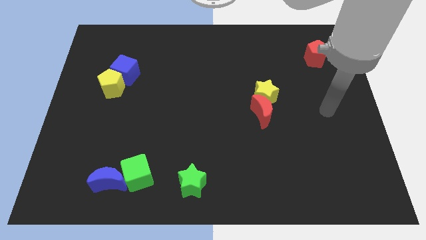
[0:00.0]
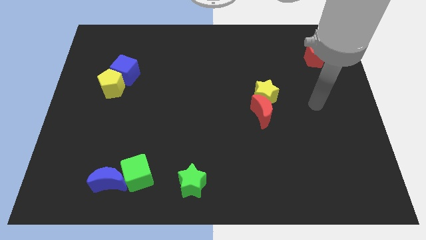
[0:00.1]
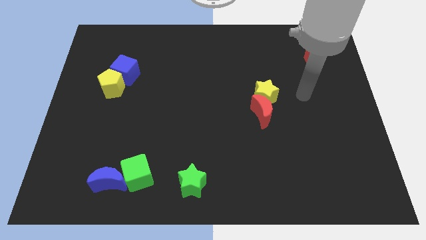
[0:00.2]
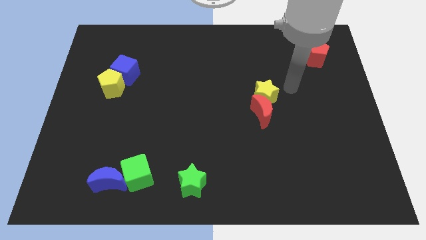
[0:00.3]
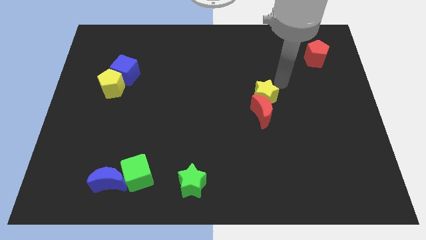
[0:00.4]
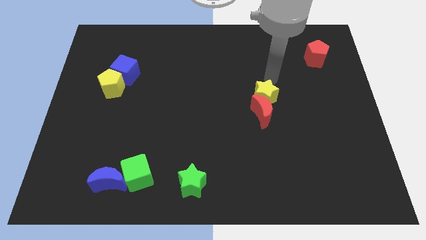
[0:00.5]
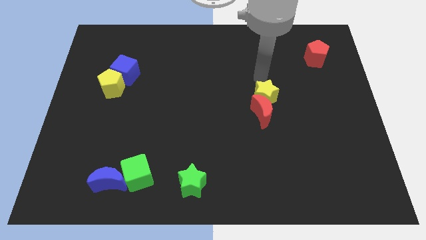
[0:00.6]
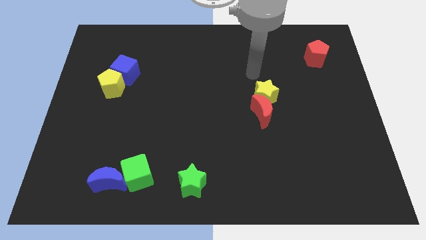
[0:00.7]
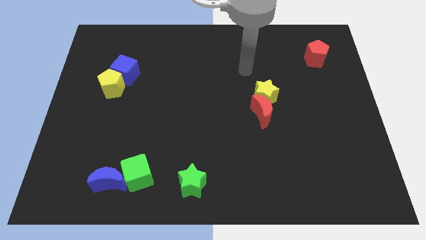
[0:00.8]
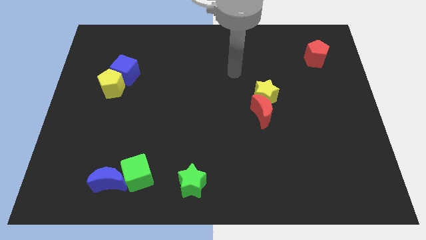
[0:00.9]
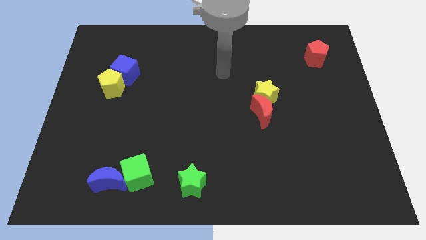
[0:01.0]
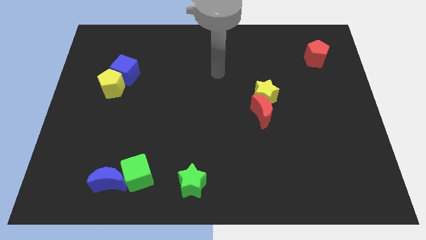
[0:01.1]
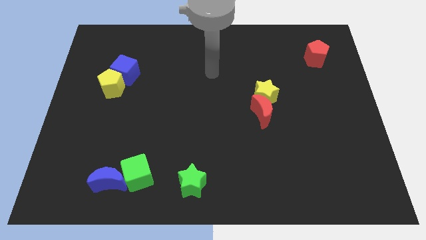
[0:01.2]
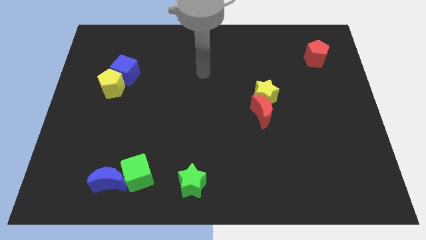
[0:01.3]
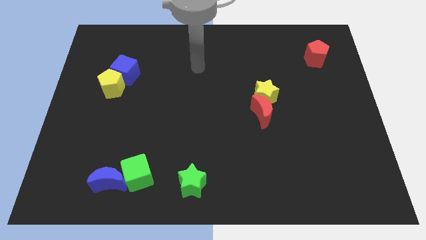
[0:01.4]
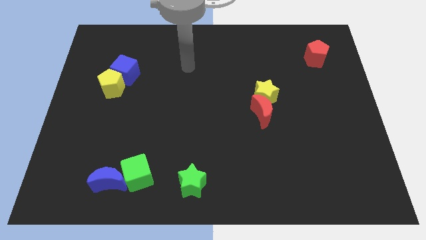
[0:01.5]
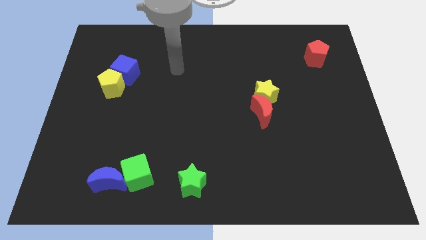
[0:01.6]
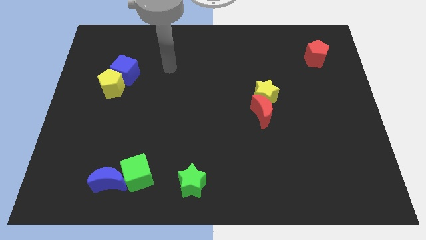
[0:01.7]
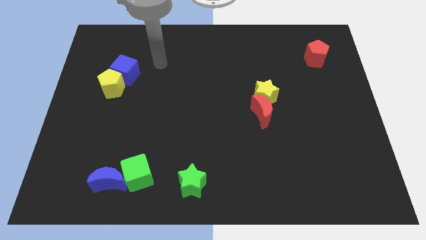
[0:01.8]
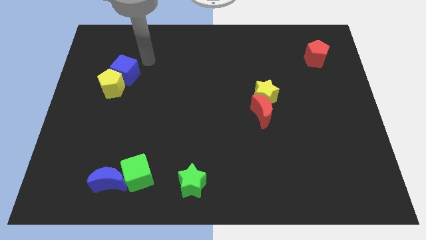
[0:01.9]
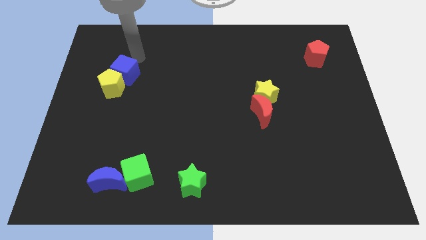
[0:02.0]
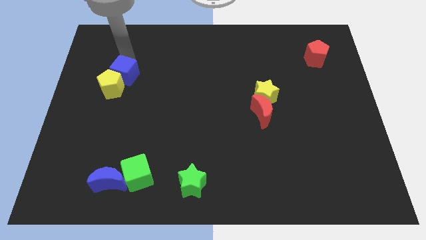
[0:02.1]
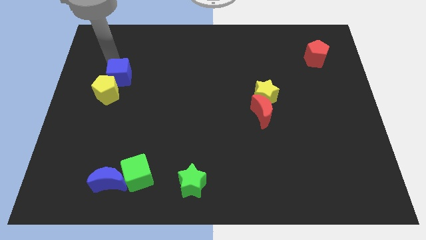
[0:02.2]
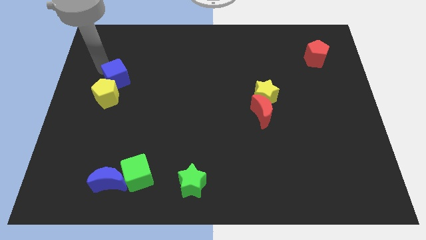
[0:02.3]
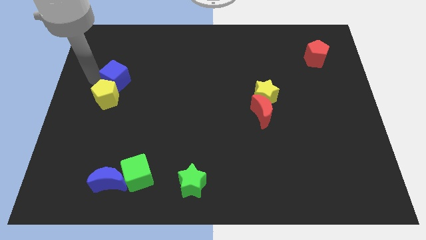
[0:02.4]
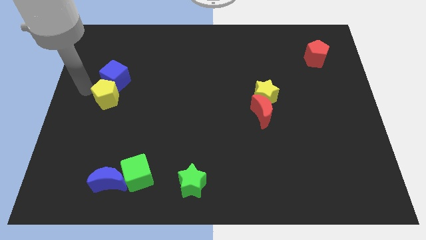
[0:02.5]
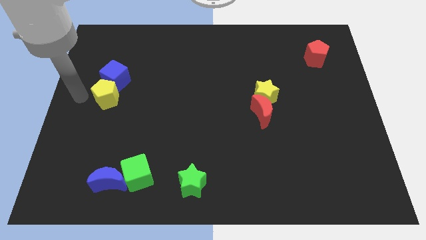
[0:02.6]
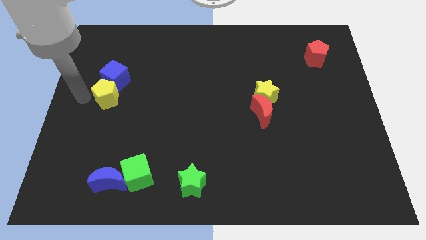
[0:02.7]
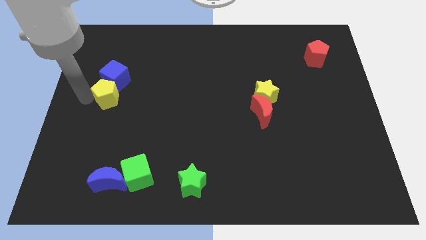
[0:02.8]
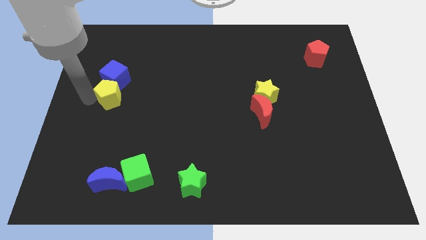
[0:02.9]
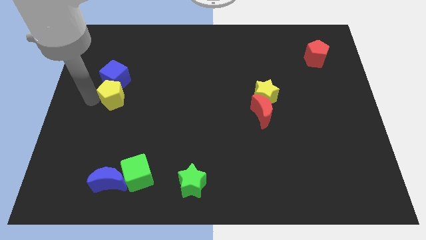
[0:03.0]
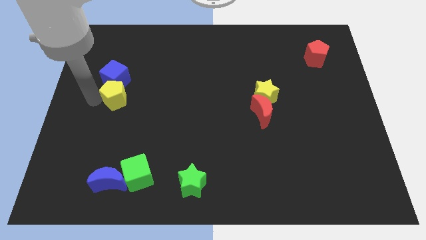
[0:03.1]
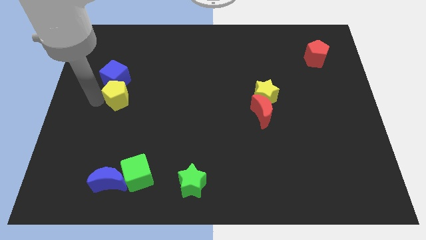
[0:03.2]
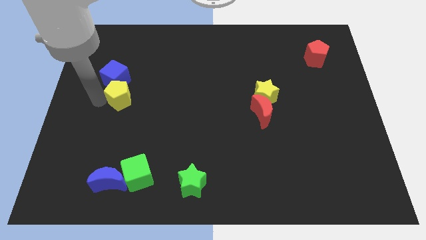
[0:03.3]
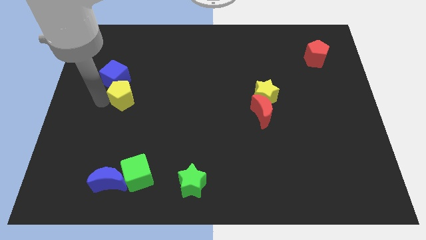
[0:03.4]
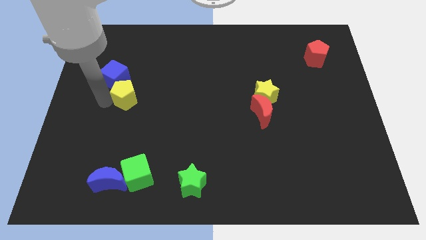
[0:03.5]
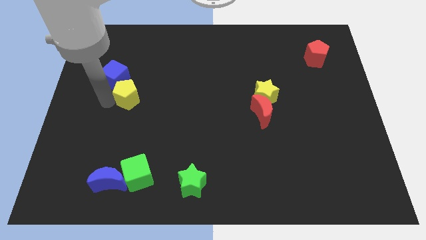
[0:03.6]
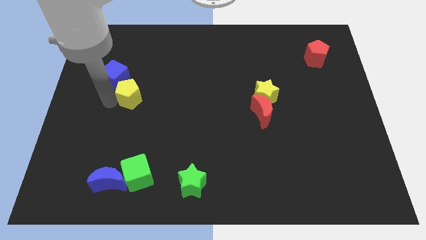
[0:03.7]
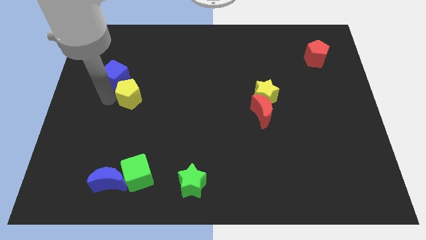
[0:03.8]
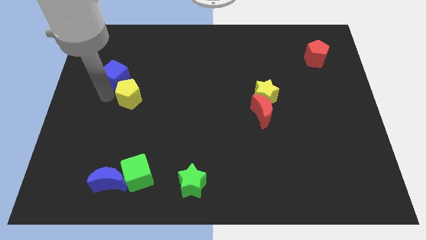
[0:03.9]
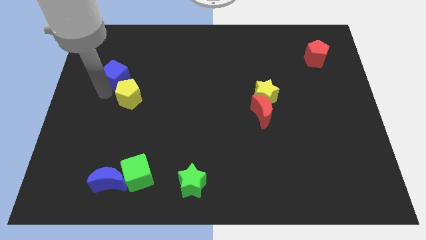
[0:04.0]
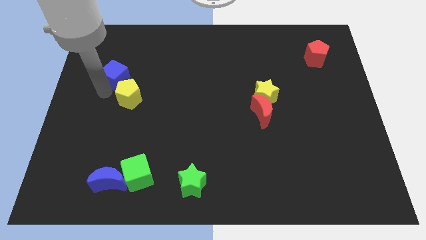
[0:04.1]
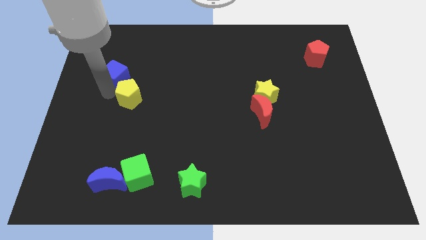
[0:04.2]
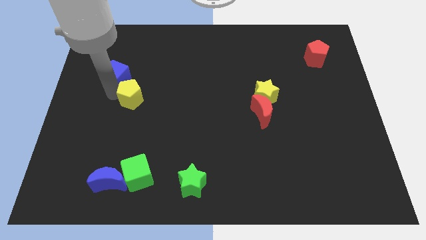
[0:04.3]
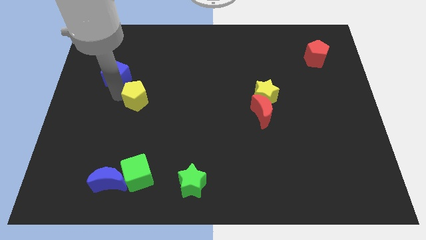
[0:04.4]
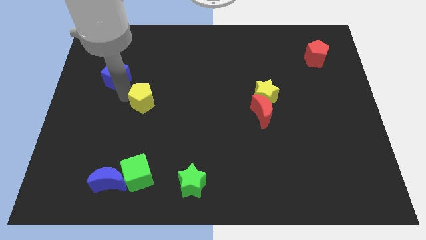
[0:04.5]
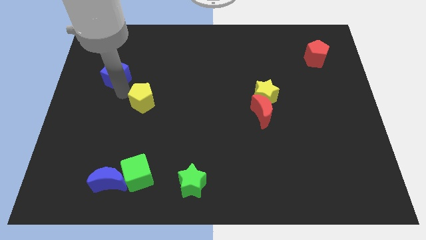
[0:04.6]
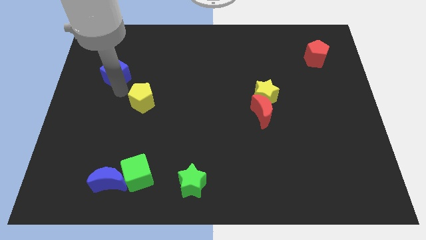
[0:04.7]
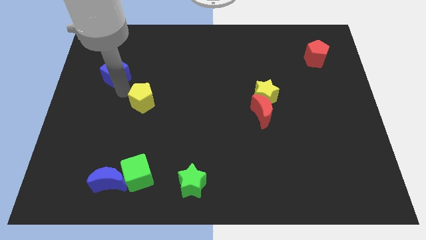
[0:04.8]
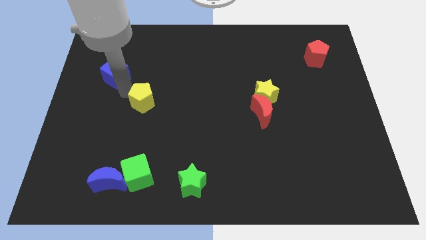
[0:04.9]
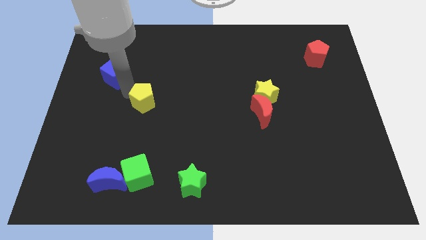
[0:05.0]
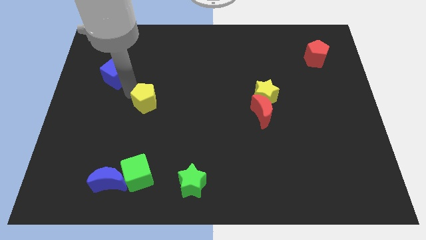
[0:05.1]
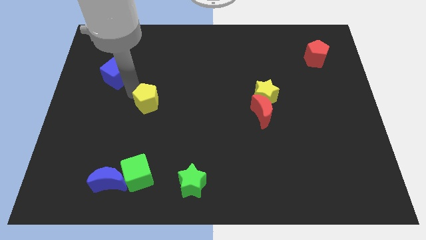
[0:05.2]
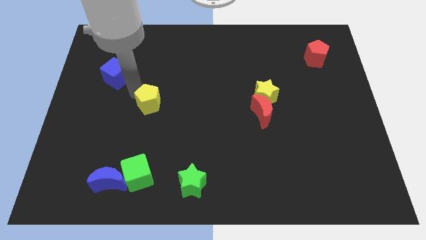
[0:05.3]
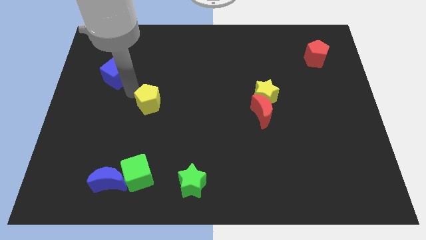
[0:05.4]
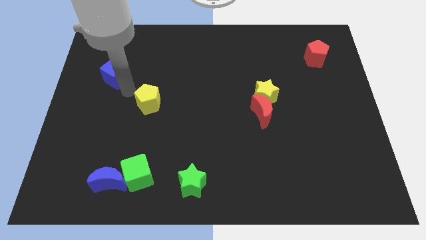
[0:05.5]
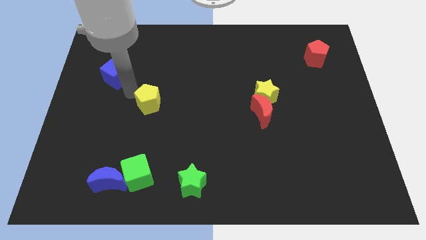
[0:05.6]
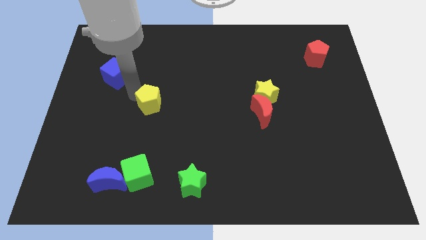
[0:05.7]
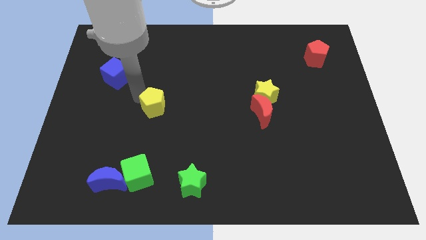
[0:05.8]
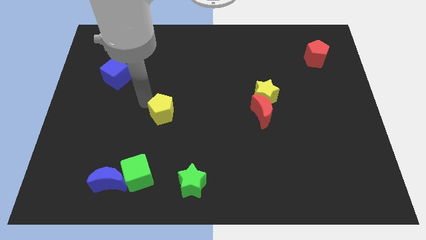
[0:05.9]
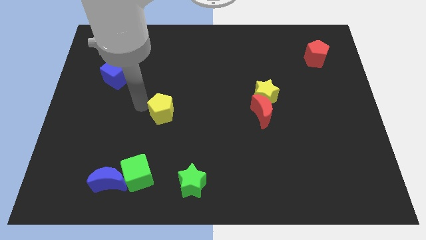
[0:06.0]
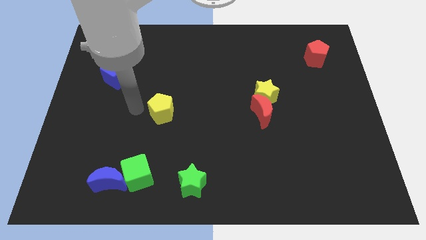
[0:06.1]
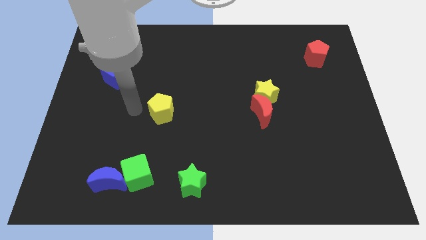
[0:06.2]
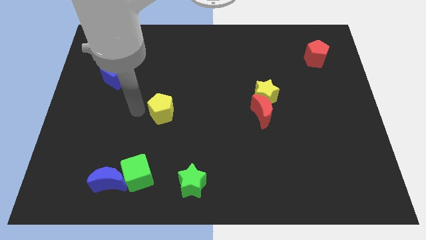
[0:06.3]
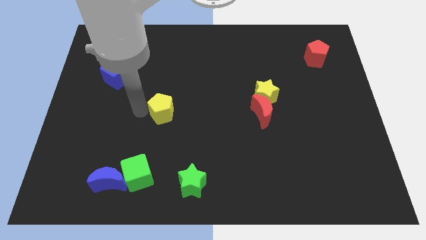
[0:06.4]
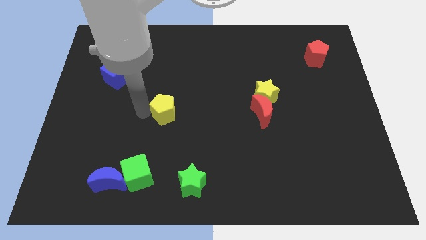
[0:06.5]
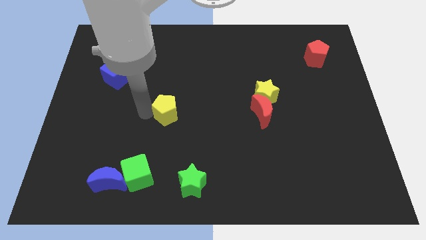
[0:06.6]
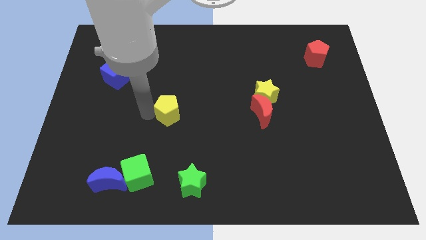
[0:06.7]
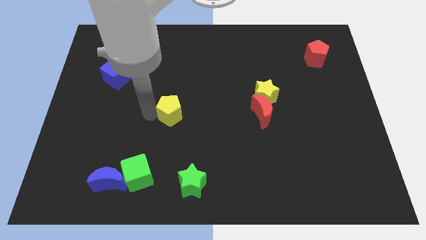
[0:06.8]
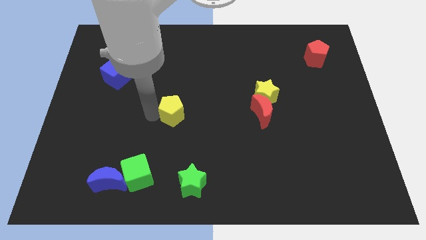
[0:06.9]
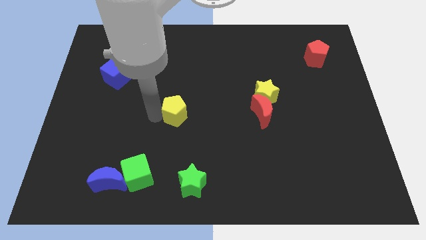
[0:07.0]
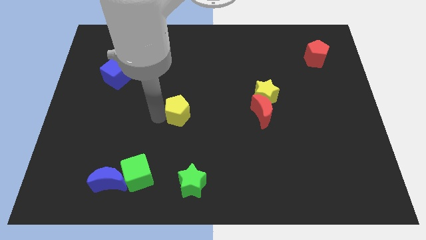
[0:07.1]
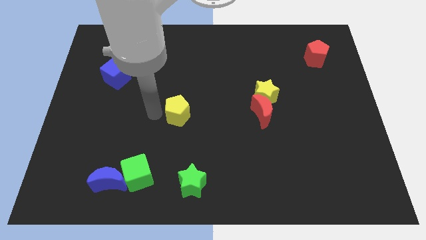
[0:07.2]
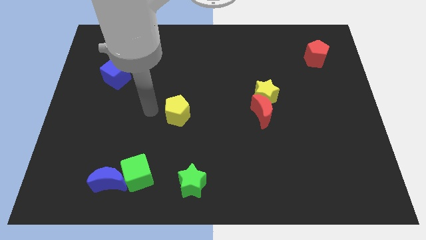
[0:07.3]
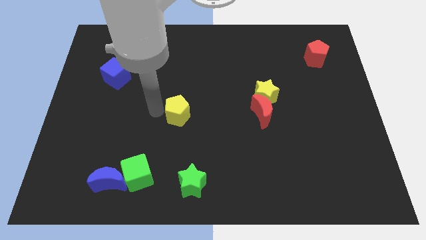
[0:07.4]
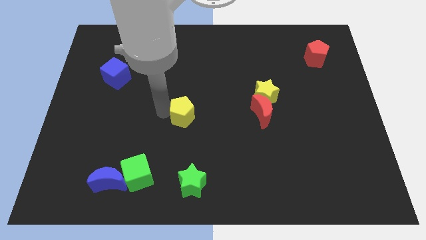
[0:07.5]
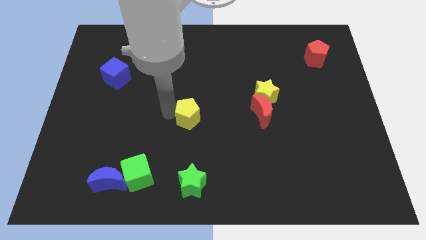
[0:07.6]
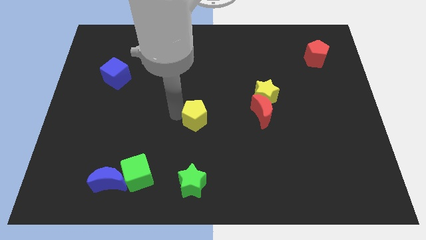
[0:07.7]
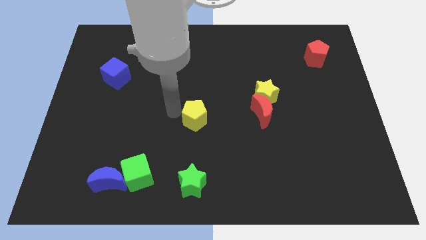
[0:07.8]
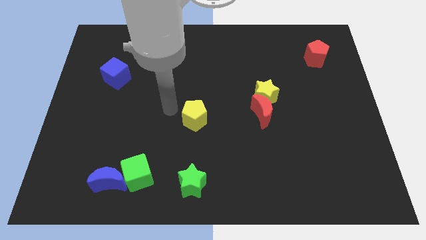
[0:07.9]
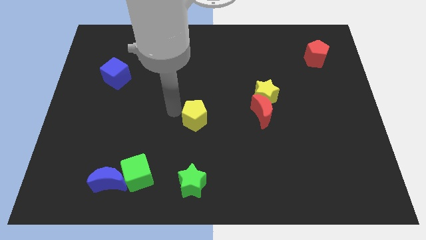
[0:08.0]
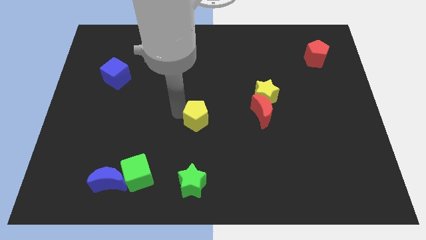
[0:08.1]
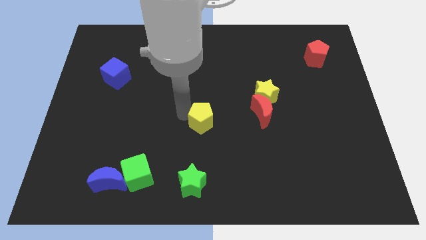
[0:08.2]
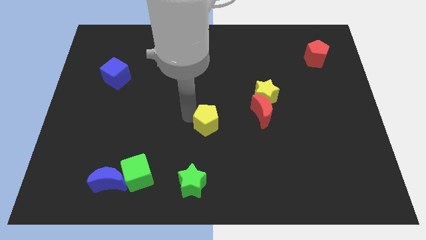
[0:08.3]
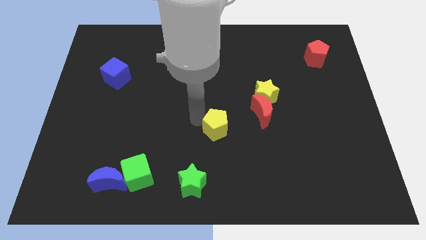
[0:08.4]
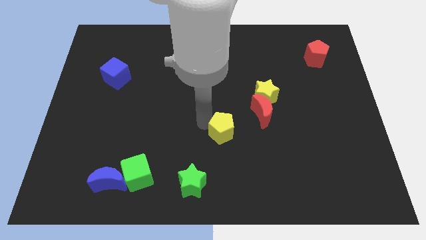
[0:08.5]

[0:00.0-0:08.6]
push the yellow pentagon diagonally down and to the left of the red moon
